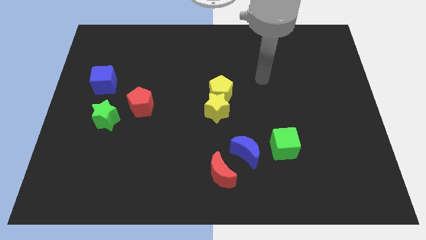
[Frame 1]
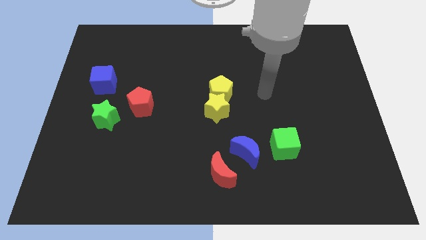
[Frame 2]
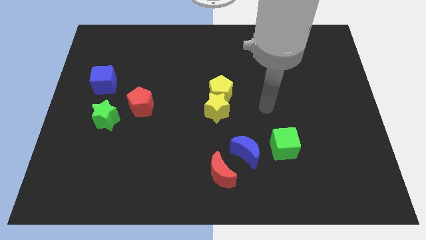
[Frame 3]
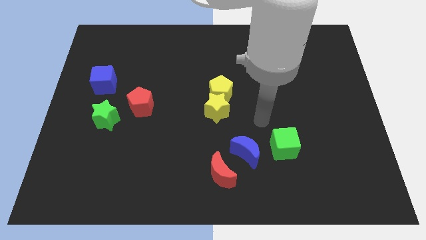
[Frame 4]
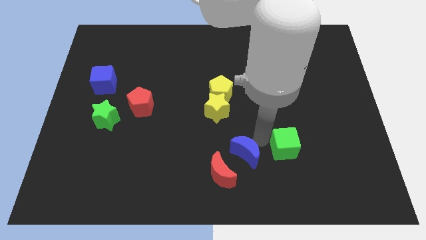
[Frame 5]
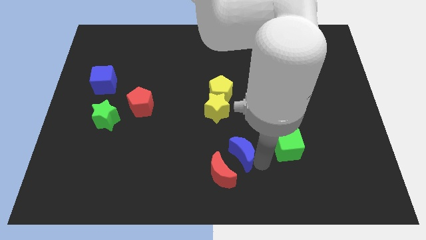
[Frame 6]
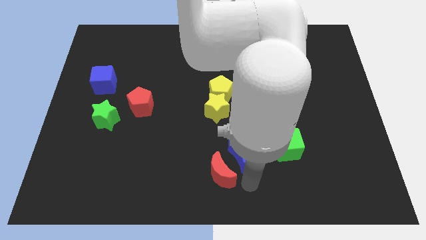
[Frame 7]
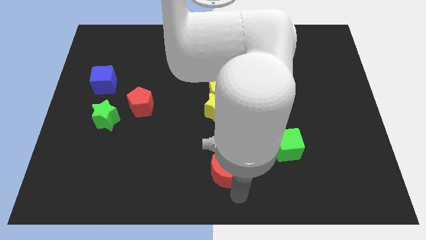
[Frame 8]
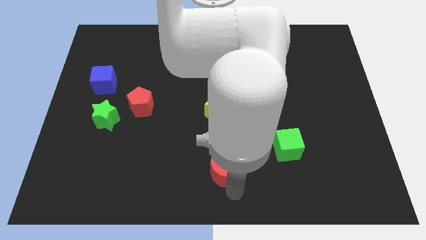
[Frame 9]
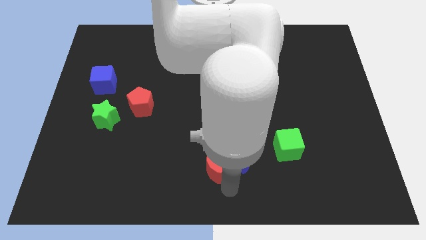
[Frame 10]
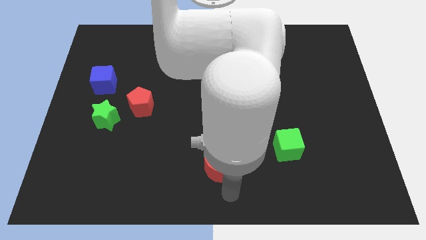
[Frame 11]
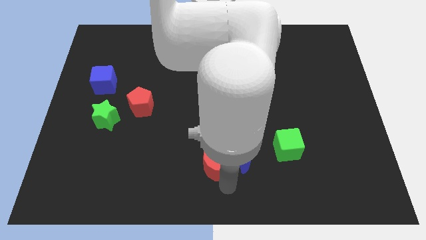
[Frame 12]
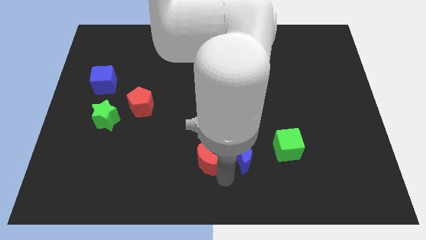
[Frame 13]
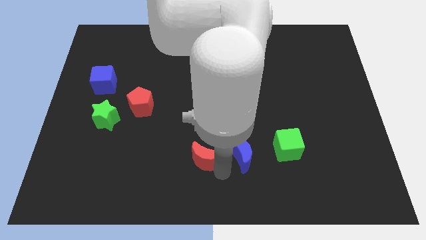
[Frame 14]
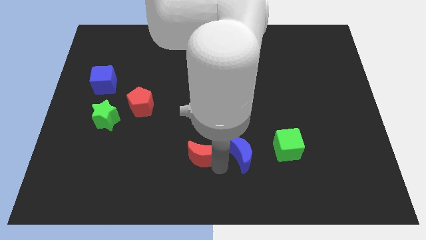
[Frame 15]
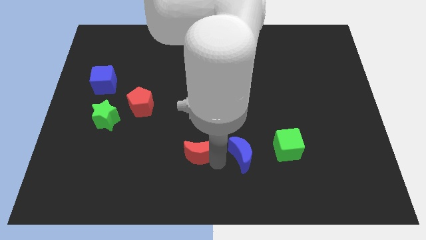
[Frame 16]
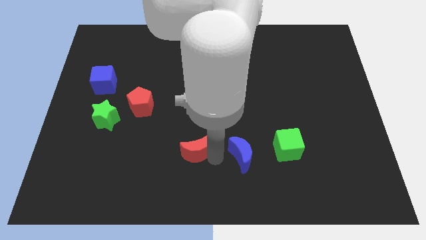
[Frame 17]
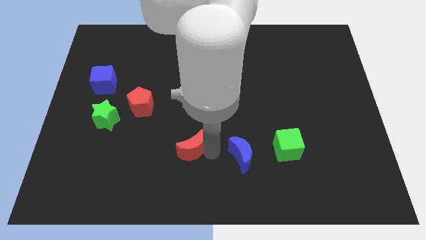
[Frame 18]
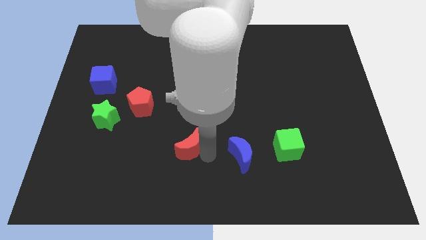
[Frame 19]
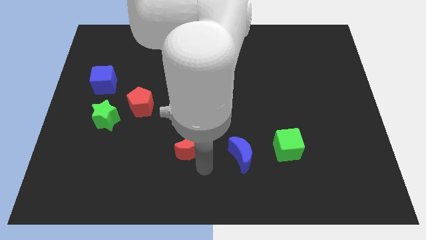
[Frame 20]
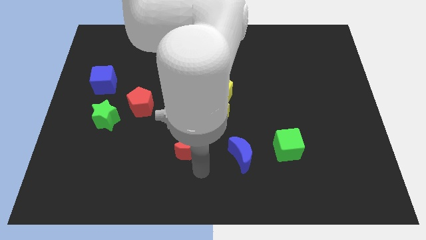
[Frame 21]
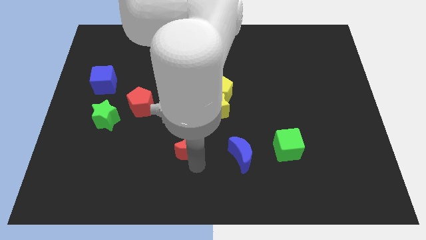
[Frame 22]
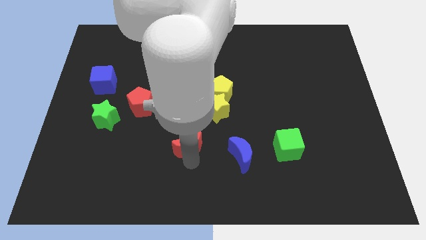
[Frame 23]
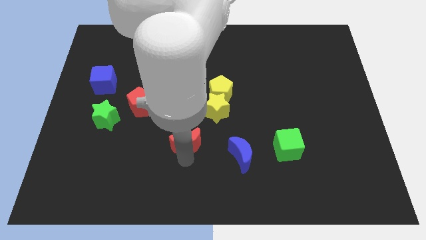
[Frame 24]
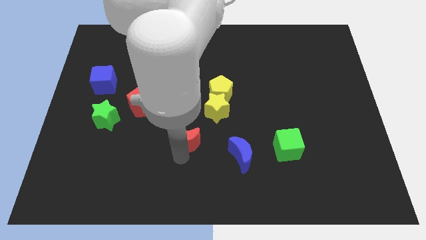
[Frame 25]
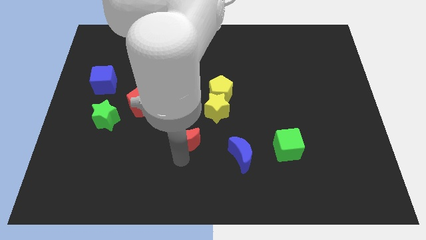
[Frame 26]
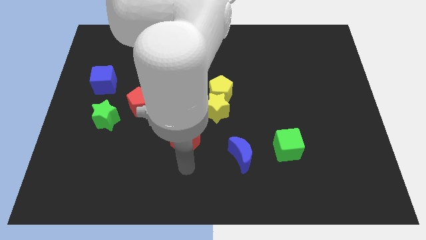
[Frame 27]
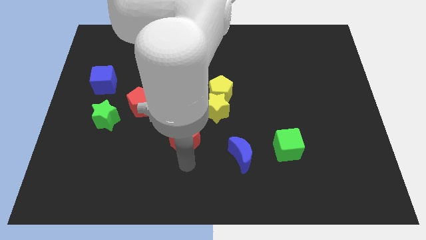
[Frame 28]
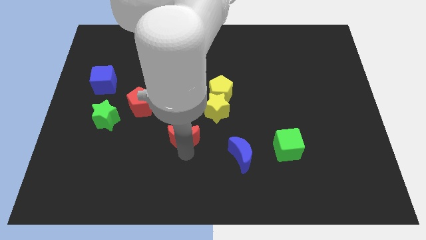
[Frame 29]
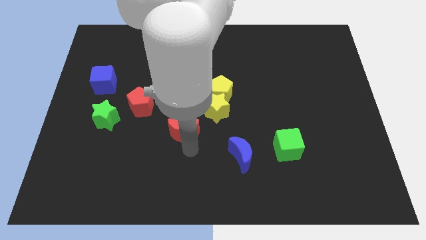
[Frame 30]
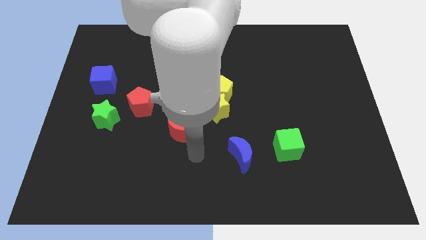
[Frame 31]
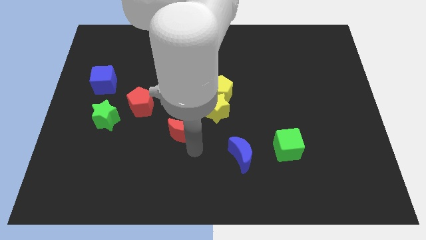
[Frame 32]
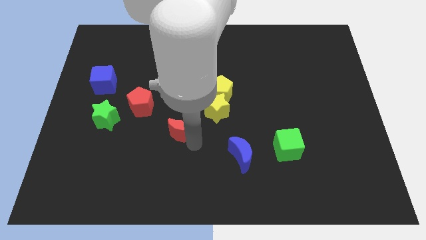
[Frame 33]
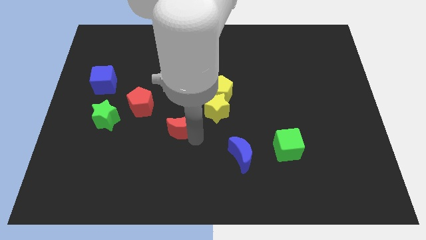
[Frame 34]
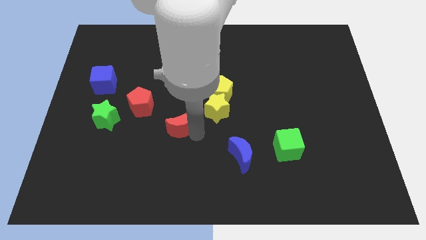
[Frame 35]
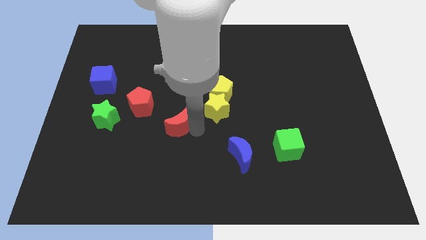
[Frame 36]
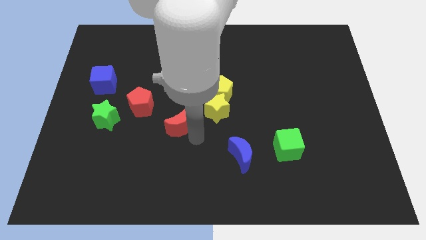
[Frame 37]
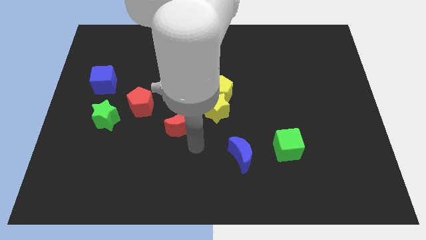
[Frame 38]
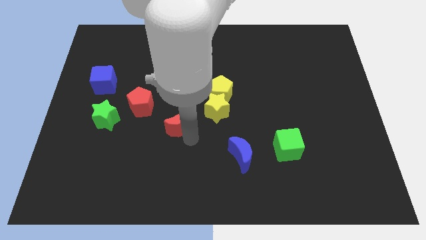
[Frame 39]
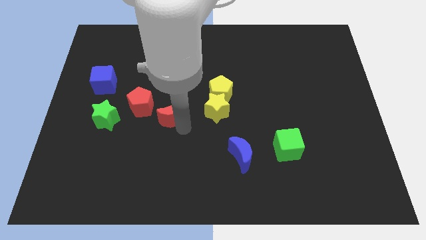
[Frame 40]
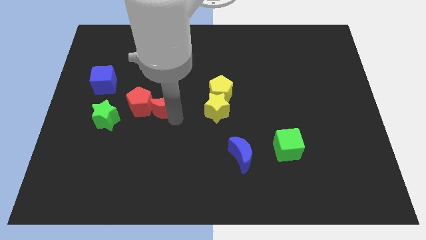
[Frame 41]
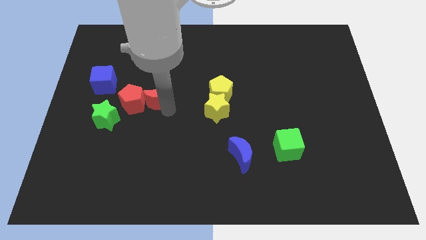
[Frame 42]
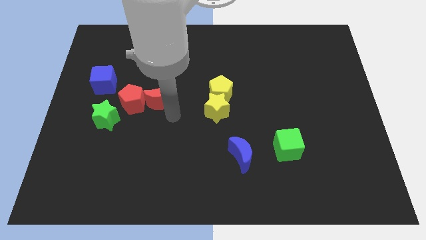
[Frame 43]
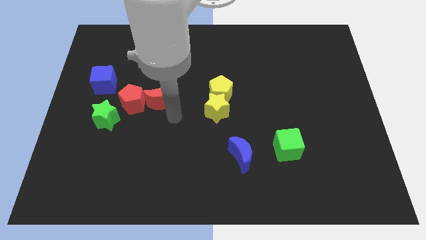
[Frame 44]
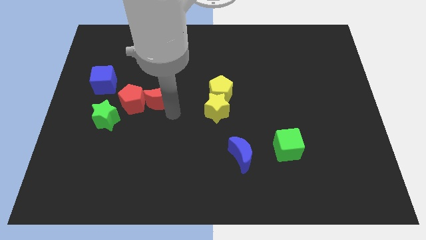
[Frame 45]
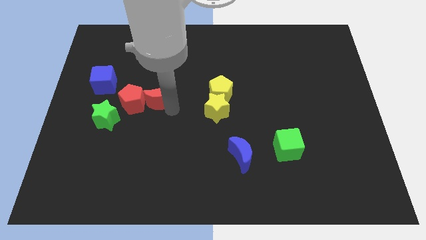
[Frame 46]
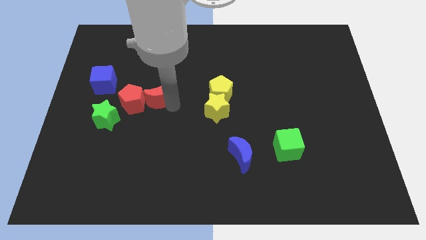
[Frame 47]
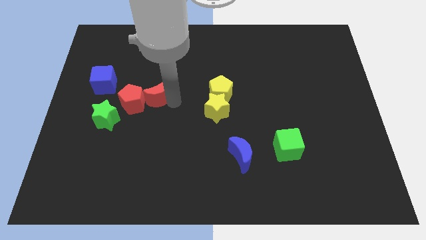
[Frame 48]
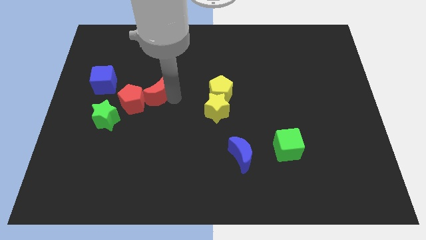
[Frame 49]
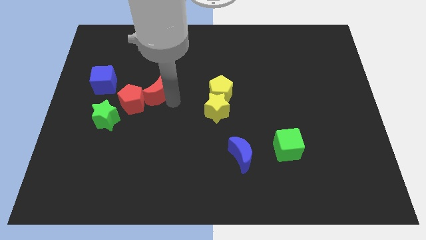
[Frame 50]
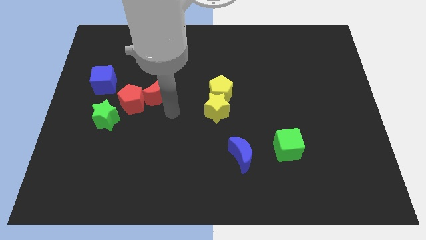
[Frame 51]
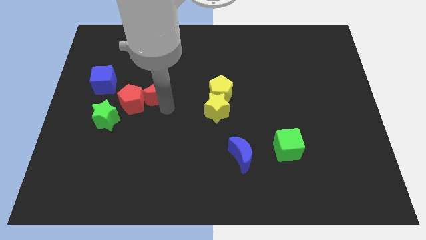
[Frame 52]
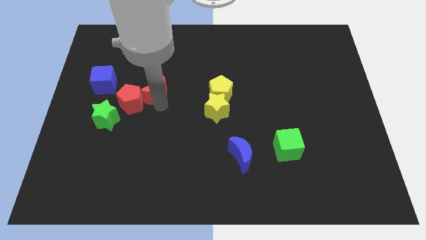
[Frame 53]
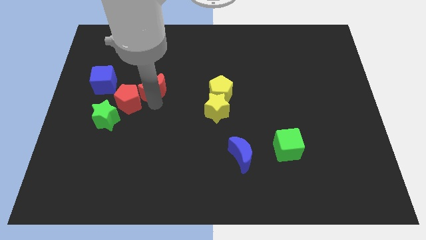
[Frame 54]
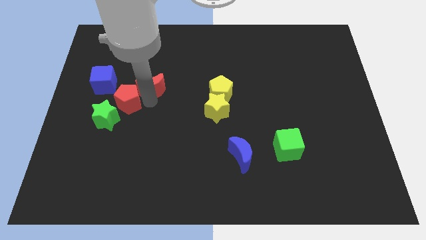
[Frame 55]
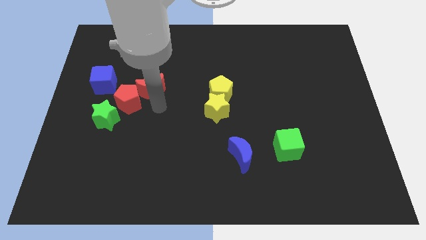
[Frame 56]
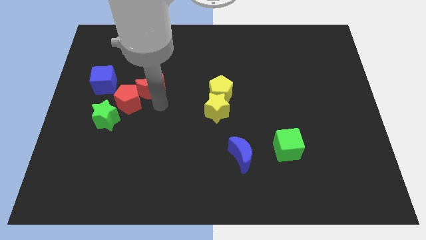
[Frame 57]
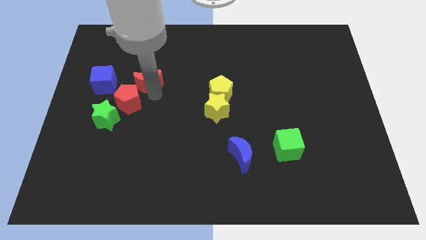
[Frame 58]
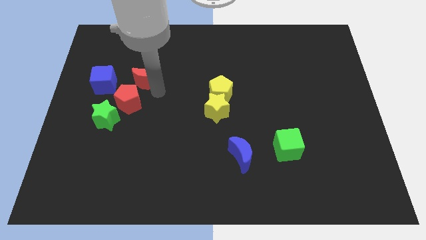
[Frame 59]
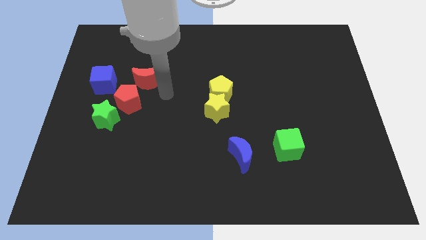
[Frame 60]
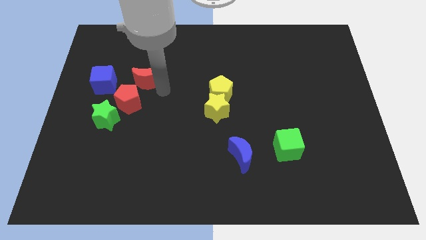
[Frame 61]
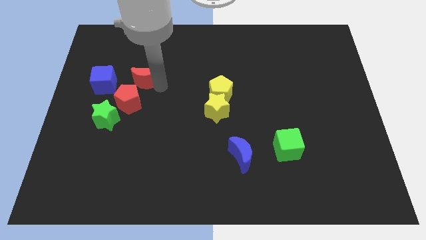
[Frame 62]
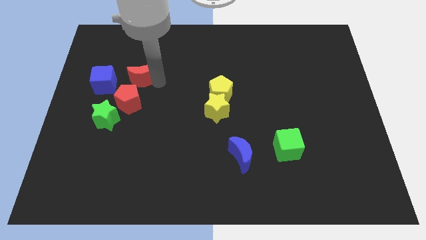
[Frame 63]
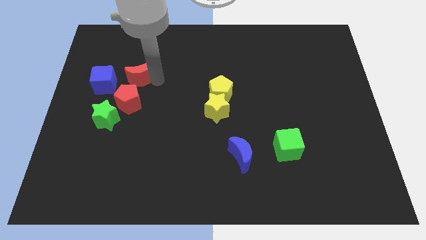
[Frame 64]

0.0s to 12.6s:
put the red moon diagonally up and to the right of the blue cube
